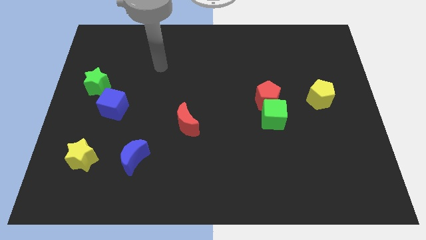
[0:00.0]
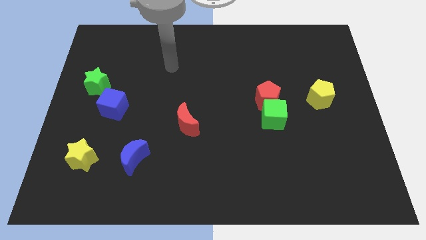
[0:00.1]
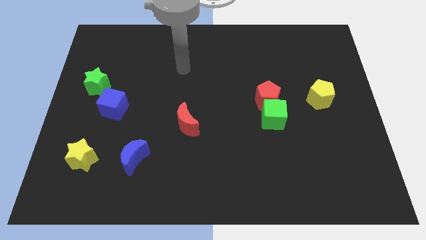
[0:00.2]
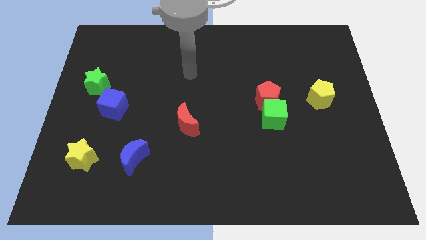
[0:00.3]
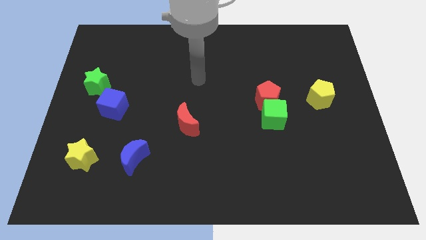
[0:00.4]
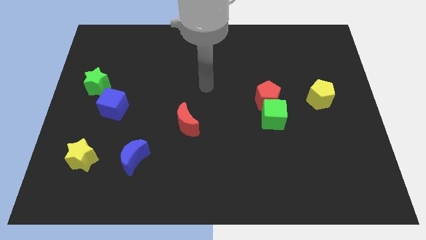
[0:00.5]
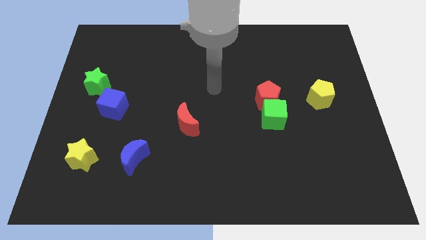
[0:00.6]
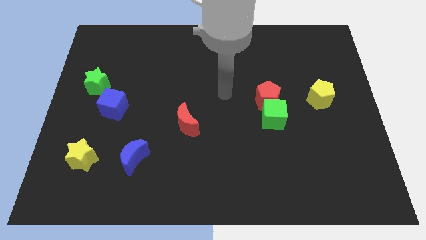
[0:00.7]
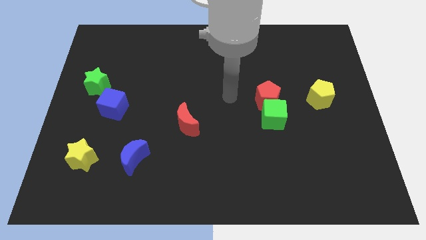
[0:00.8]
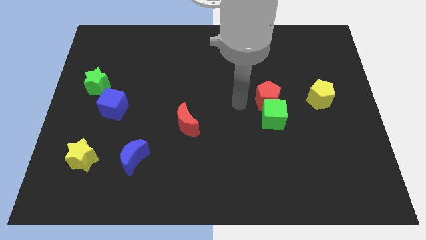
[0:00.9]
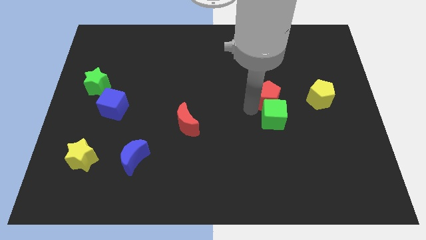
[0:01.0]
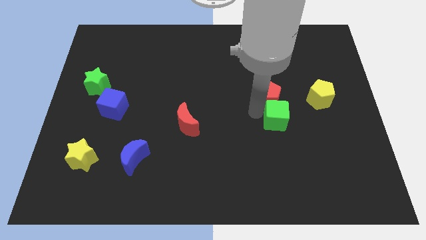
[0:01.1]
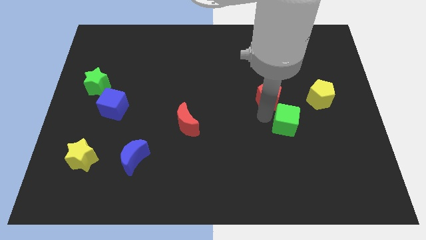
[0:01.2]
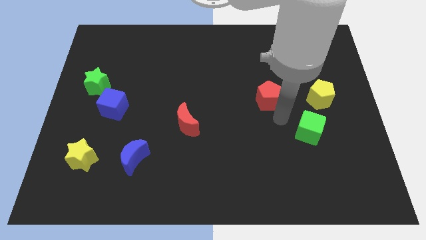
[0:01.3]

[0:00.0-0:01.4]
pull the red pentagon apart from the green cube

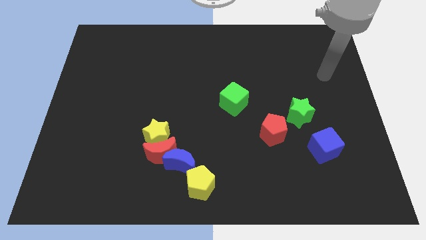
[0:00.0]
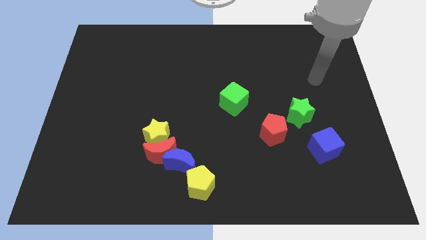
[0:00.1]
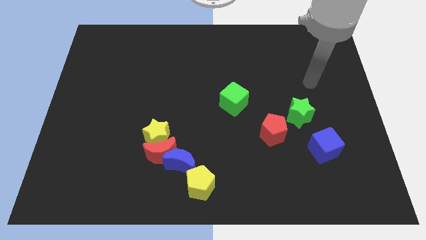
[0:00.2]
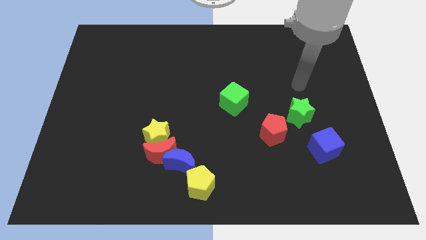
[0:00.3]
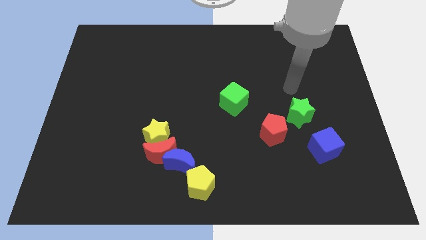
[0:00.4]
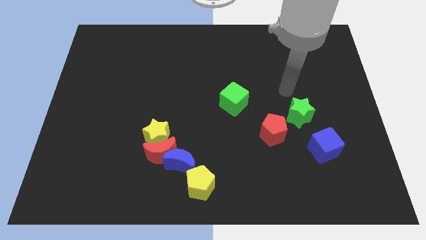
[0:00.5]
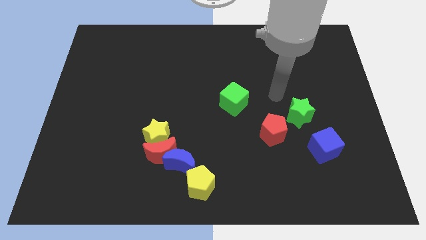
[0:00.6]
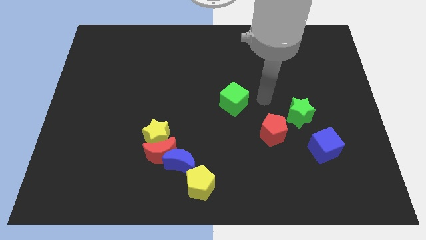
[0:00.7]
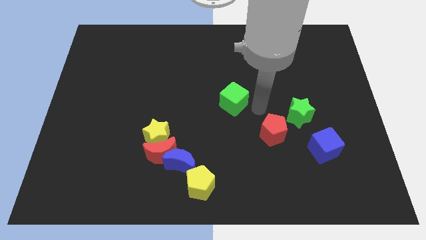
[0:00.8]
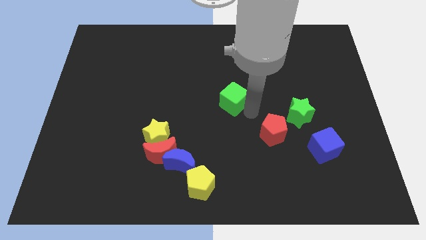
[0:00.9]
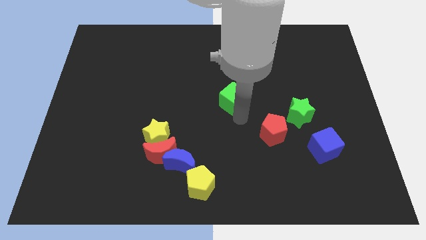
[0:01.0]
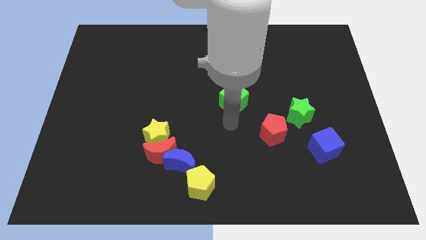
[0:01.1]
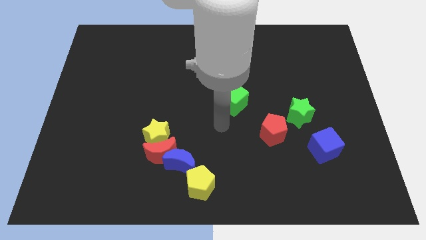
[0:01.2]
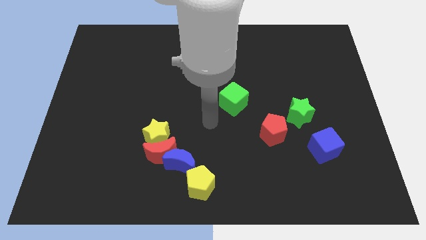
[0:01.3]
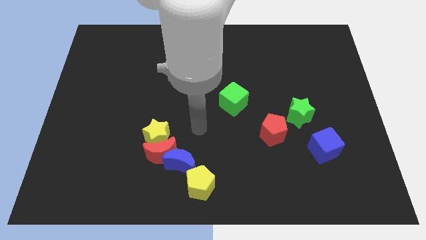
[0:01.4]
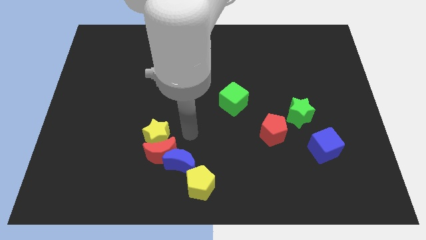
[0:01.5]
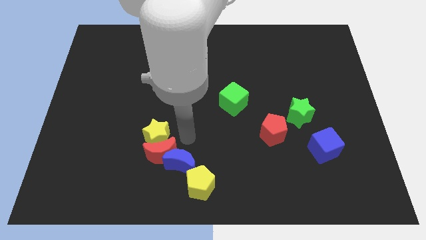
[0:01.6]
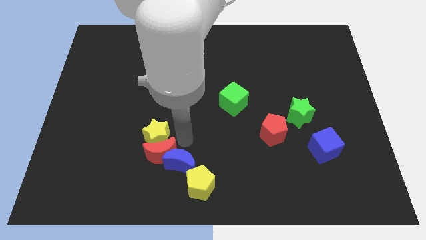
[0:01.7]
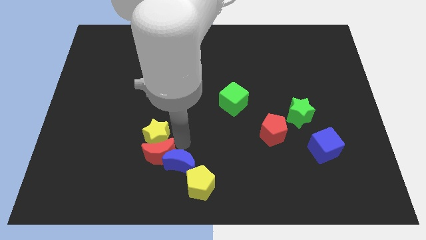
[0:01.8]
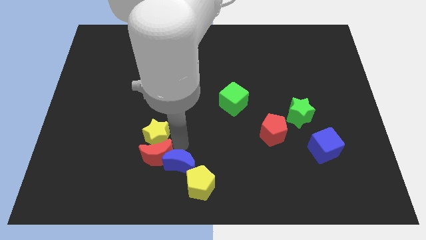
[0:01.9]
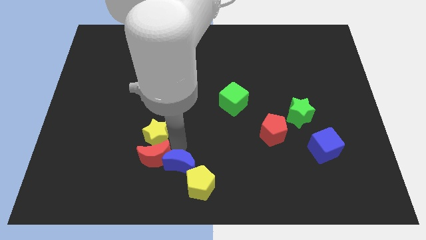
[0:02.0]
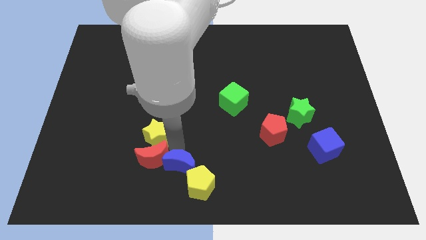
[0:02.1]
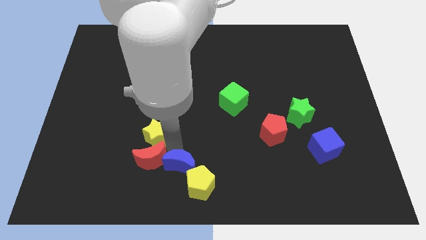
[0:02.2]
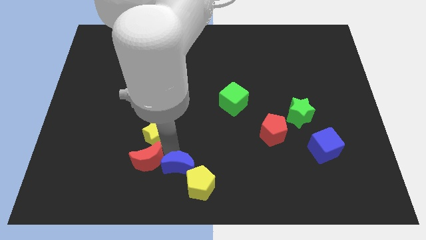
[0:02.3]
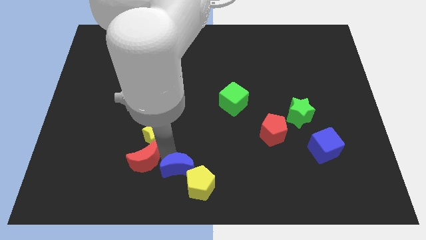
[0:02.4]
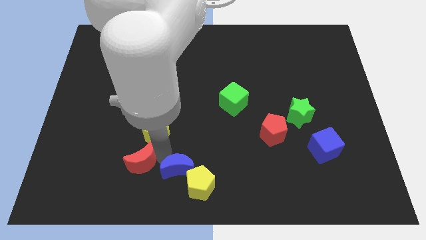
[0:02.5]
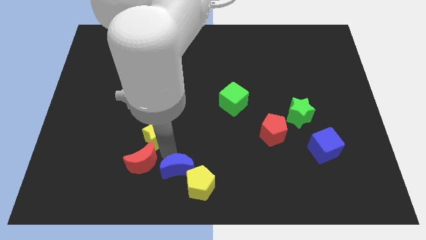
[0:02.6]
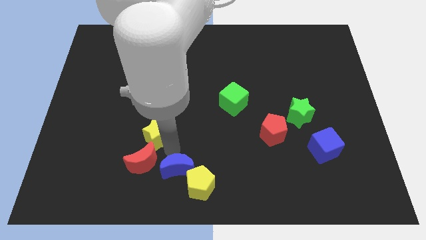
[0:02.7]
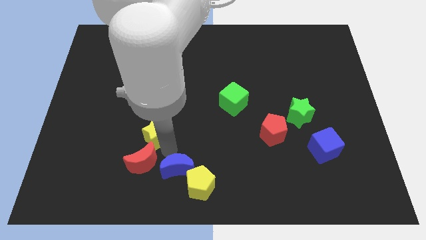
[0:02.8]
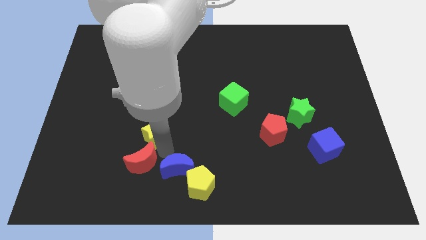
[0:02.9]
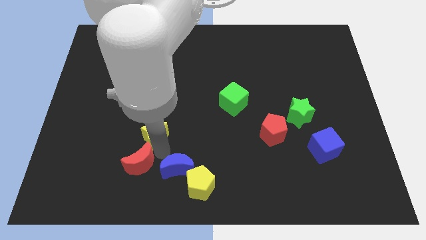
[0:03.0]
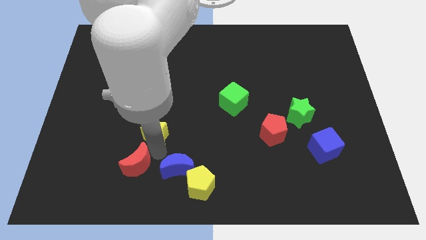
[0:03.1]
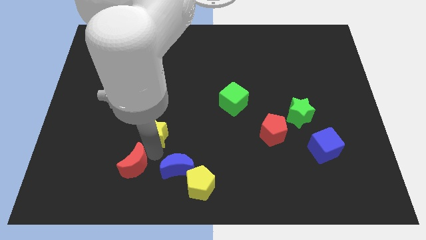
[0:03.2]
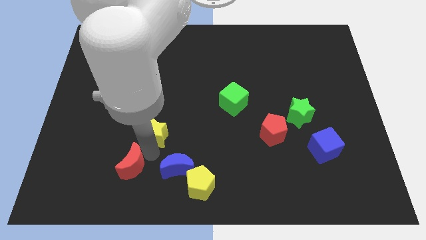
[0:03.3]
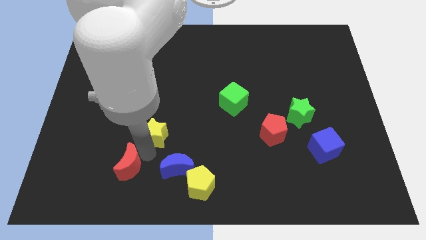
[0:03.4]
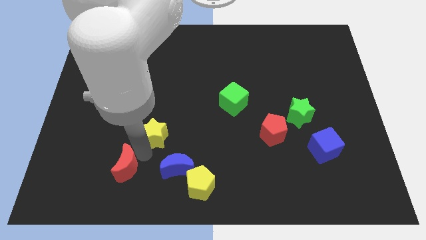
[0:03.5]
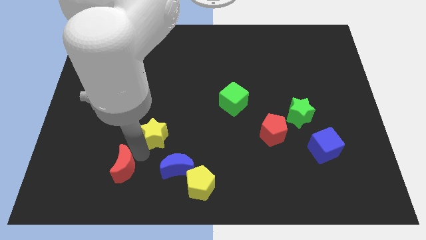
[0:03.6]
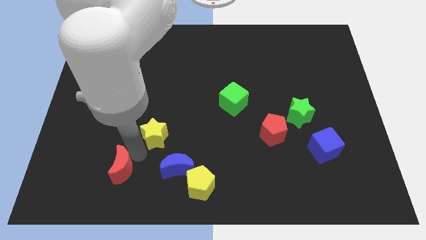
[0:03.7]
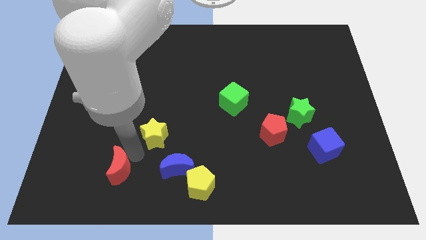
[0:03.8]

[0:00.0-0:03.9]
separate the red moon from the yellow star and blue moon

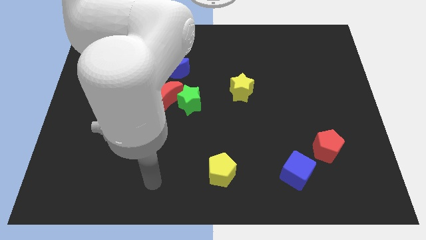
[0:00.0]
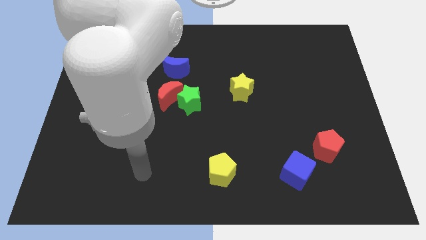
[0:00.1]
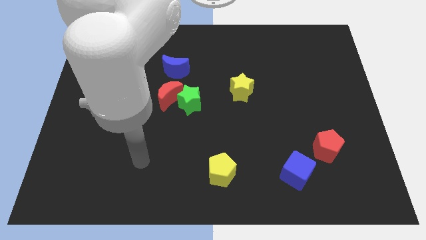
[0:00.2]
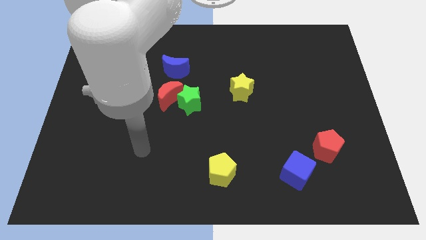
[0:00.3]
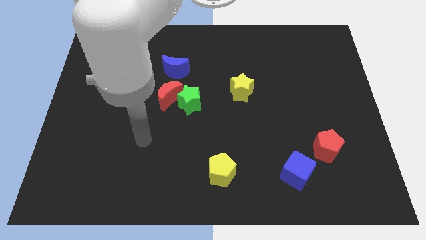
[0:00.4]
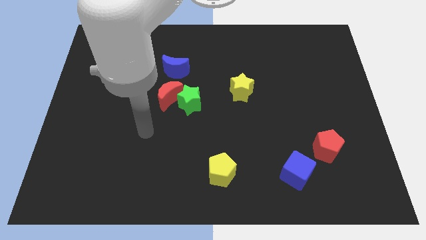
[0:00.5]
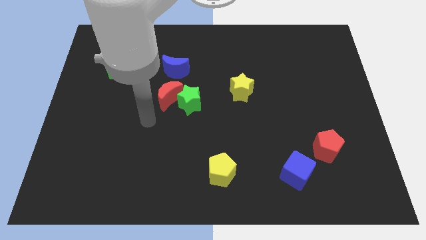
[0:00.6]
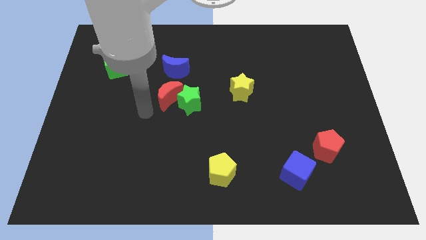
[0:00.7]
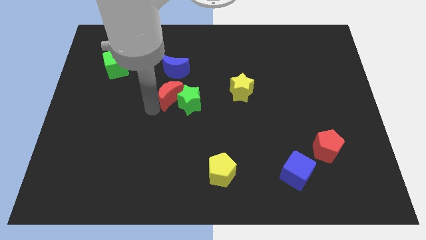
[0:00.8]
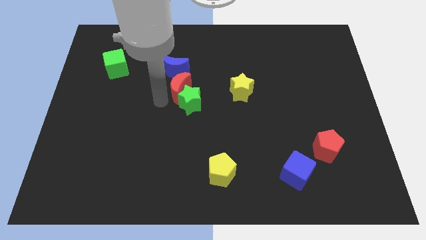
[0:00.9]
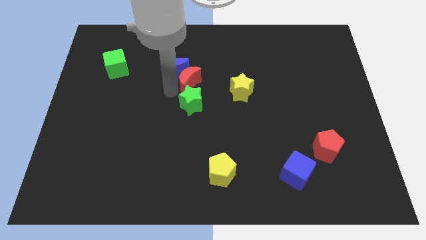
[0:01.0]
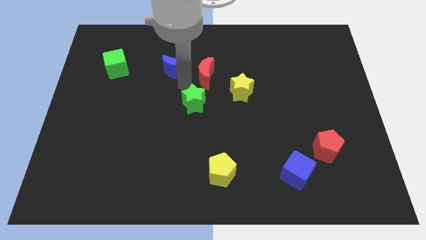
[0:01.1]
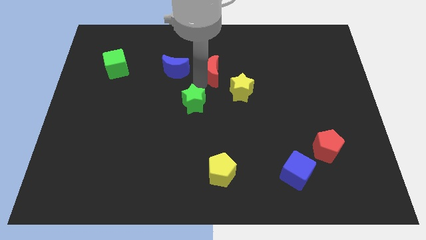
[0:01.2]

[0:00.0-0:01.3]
pull the green star apart from the red moon

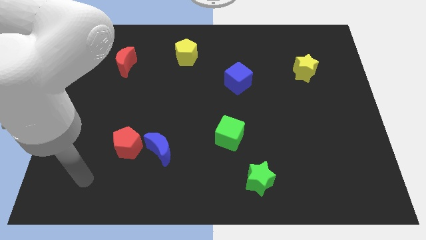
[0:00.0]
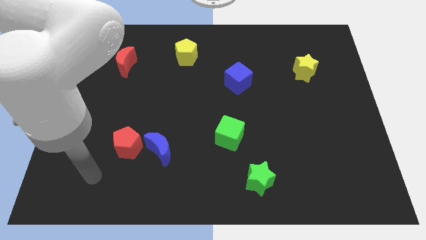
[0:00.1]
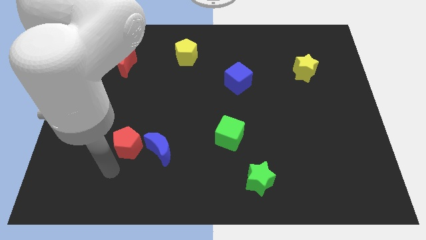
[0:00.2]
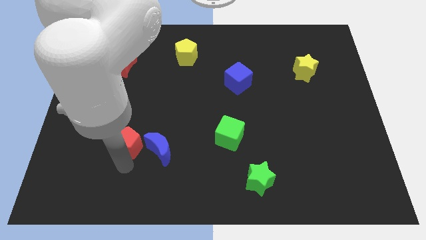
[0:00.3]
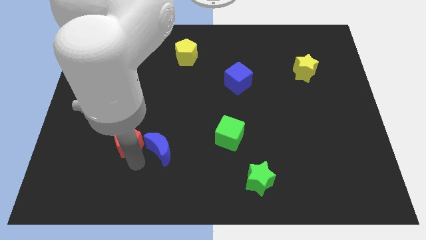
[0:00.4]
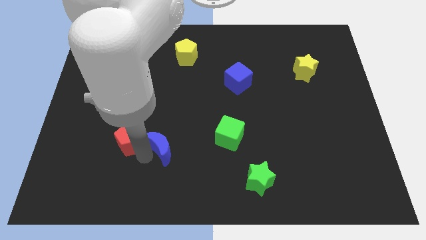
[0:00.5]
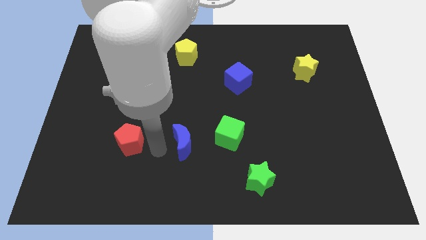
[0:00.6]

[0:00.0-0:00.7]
pull the red pentagon apart from the blue moon

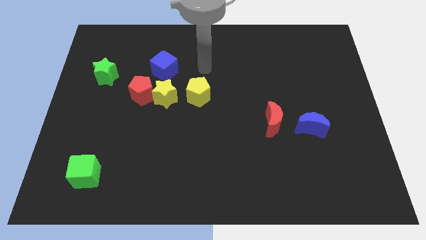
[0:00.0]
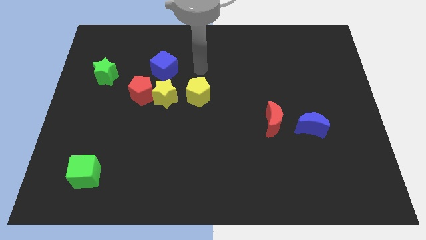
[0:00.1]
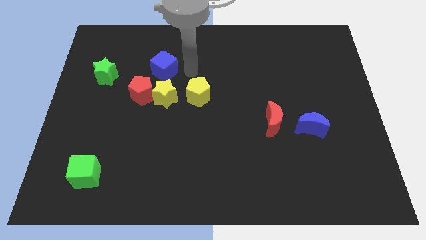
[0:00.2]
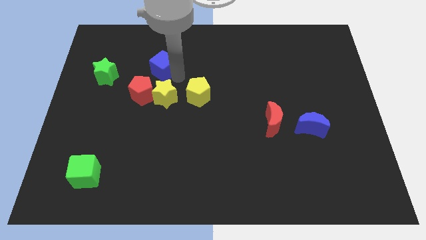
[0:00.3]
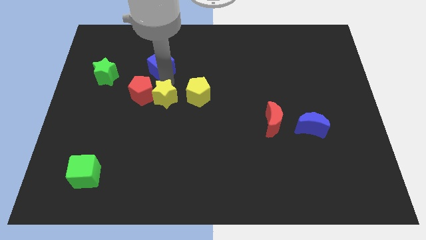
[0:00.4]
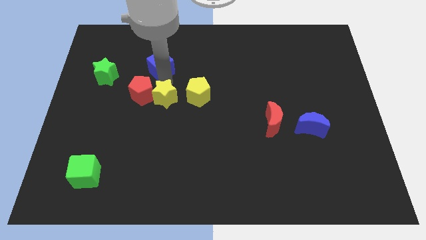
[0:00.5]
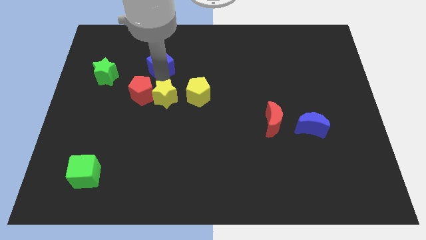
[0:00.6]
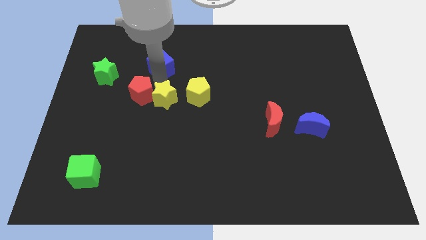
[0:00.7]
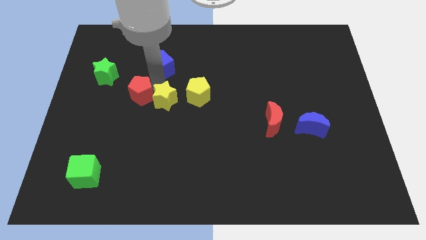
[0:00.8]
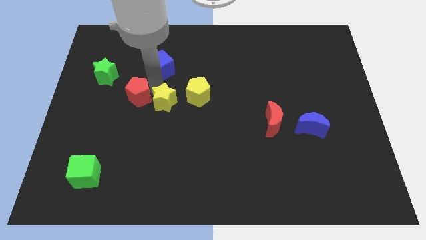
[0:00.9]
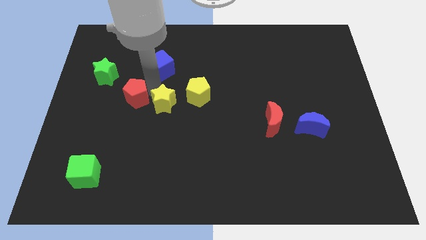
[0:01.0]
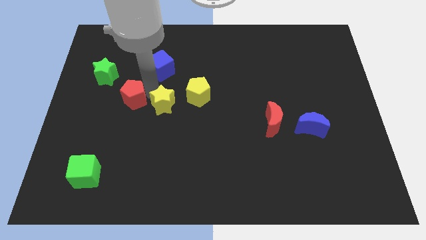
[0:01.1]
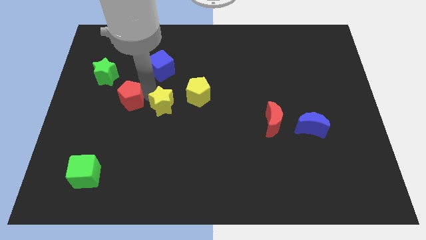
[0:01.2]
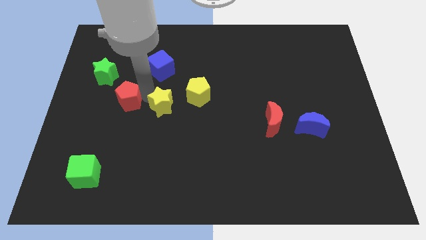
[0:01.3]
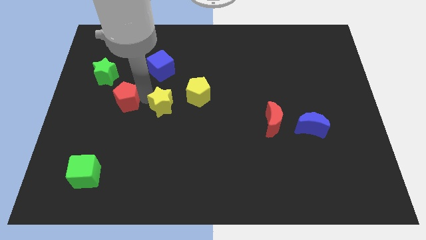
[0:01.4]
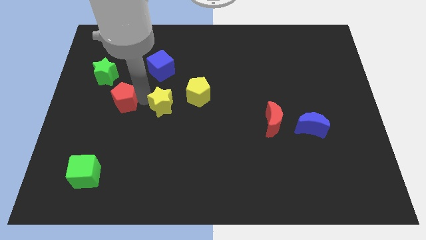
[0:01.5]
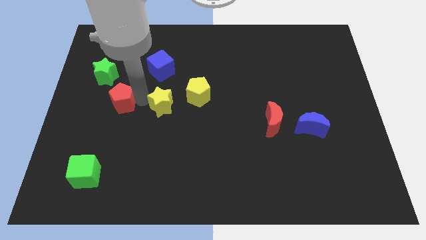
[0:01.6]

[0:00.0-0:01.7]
separate the red pentagon from the yellow star and blue cube

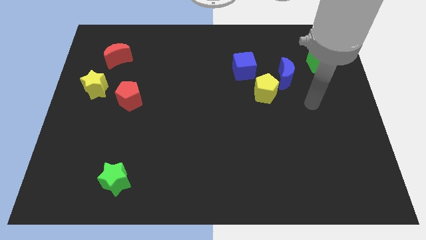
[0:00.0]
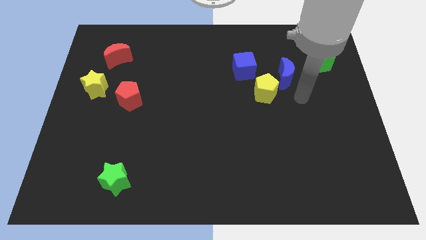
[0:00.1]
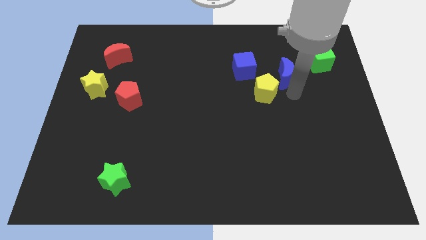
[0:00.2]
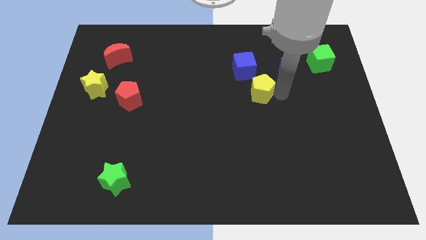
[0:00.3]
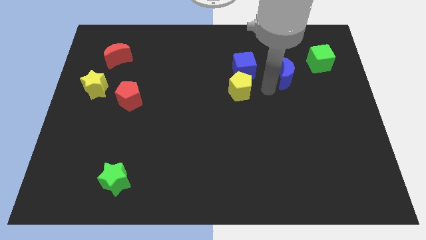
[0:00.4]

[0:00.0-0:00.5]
move the blue moon away from the yellow pentagon
